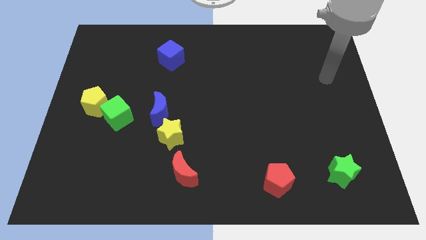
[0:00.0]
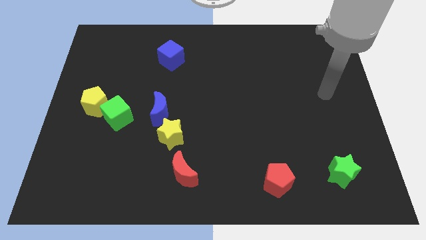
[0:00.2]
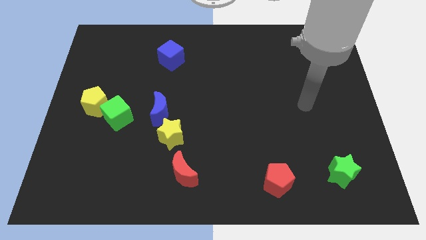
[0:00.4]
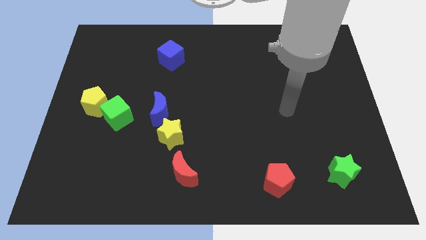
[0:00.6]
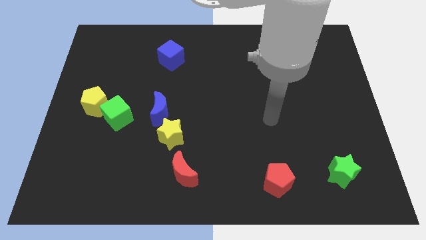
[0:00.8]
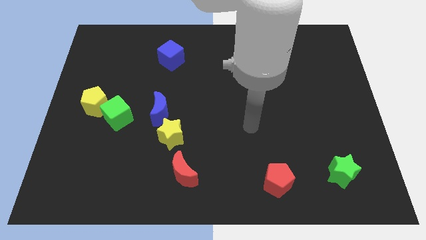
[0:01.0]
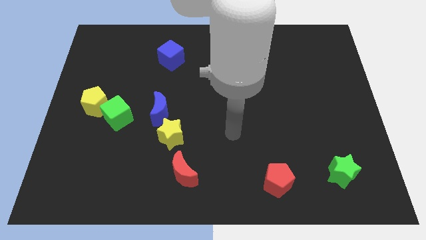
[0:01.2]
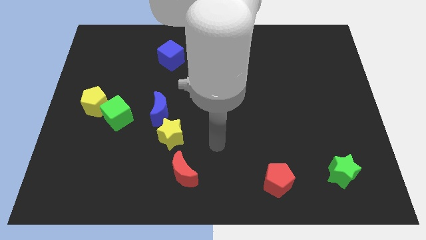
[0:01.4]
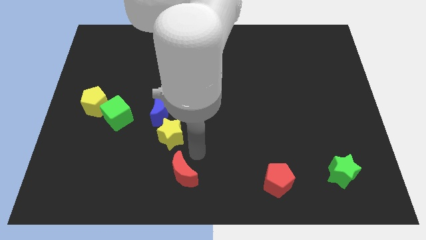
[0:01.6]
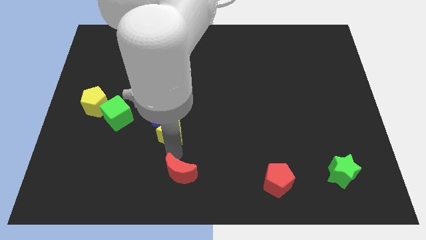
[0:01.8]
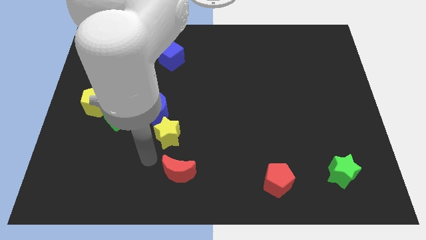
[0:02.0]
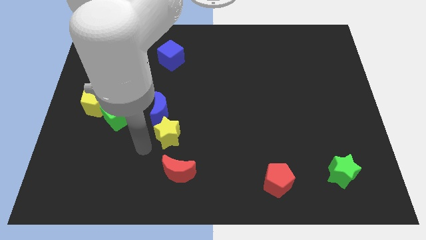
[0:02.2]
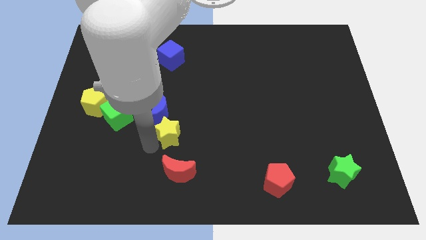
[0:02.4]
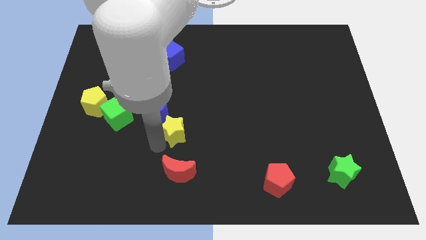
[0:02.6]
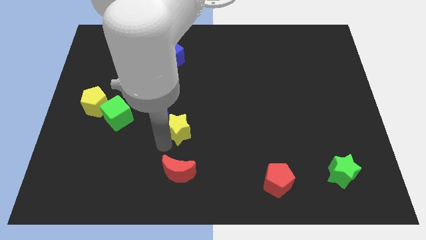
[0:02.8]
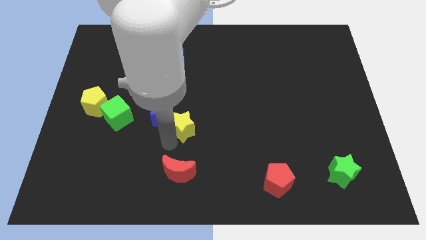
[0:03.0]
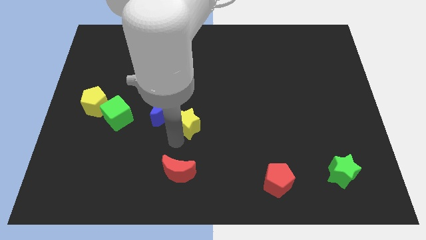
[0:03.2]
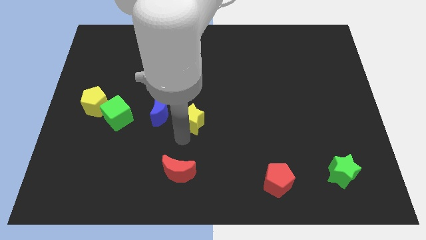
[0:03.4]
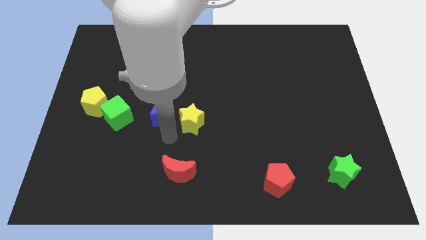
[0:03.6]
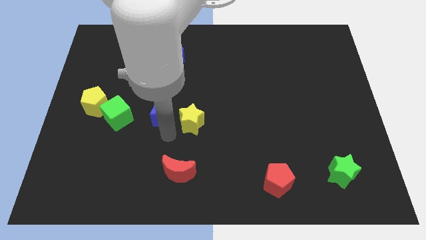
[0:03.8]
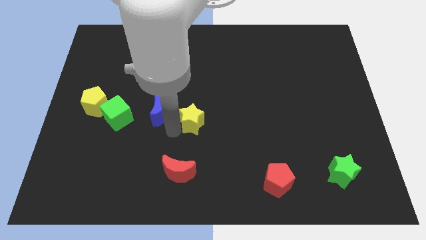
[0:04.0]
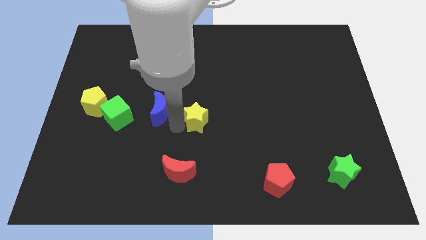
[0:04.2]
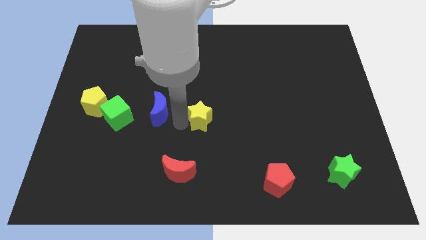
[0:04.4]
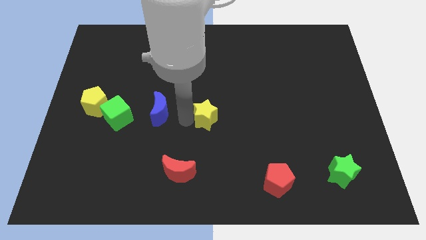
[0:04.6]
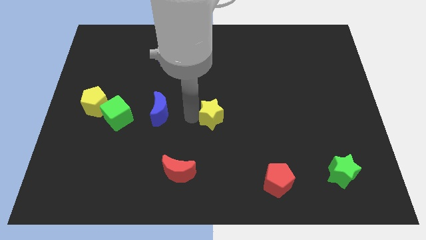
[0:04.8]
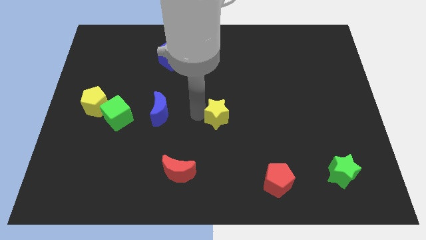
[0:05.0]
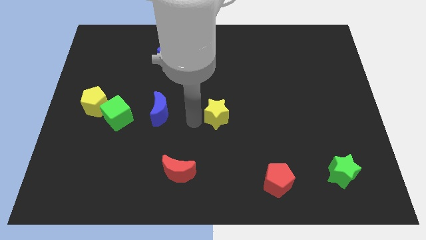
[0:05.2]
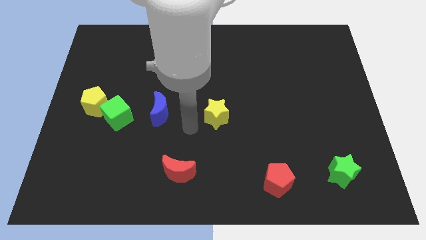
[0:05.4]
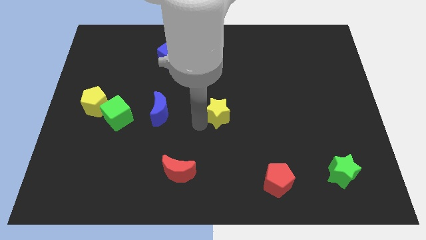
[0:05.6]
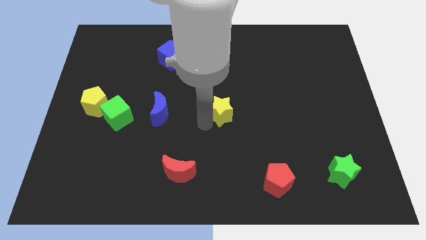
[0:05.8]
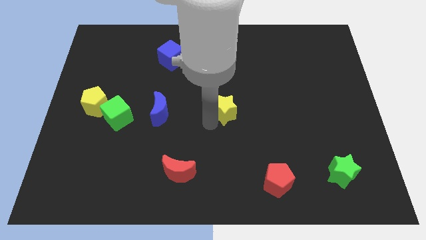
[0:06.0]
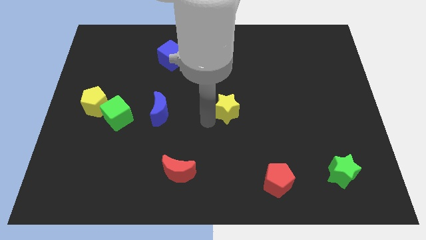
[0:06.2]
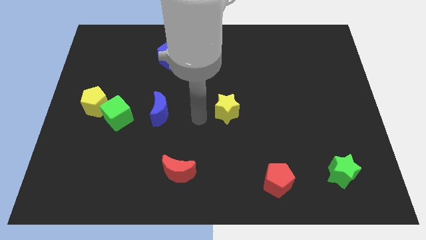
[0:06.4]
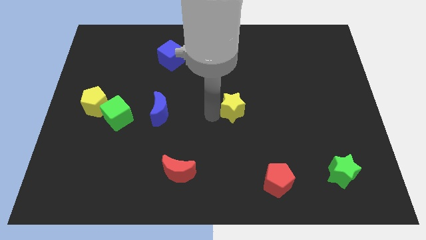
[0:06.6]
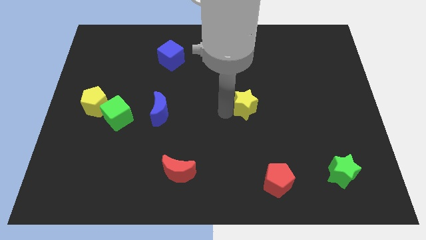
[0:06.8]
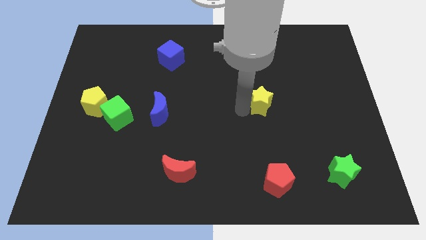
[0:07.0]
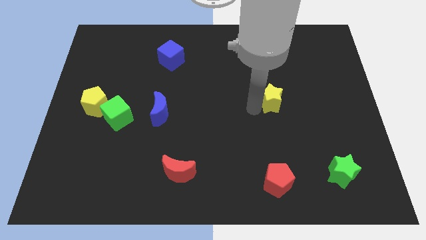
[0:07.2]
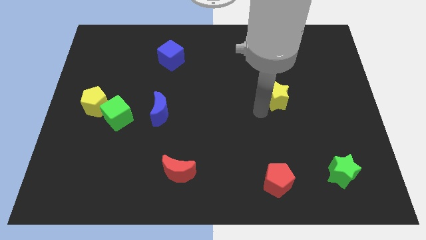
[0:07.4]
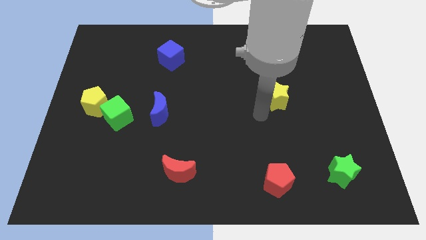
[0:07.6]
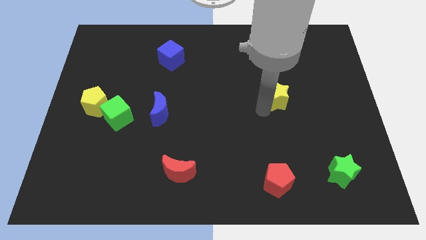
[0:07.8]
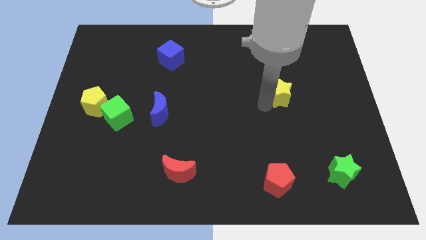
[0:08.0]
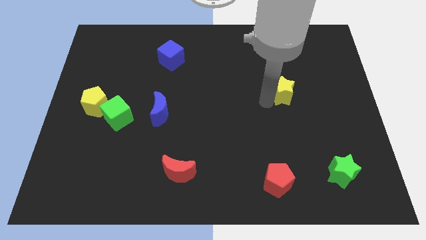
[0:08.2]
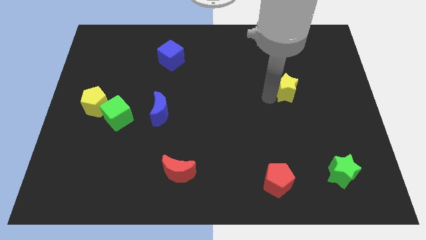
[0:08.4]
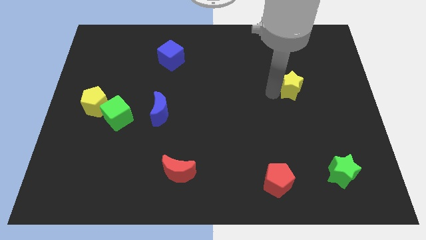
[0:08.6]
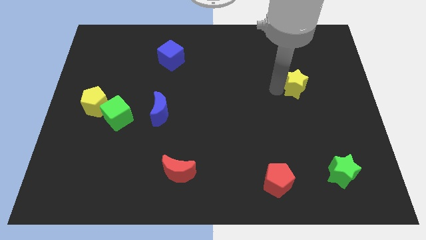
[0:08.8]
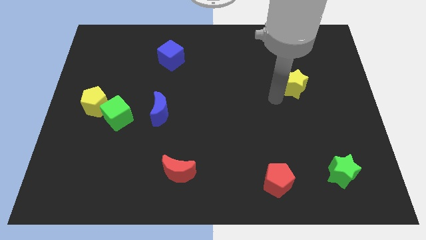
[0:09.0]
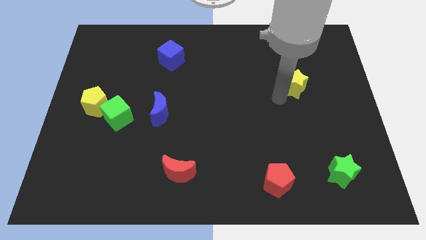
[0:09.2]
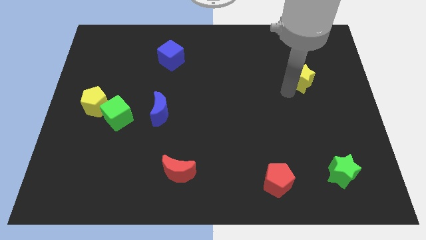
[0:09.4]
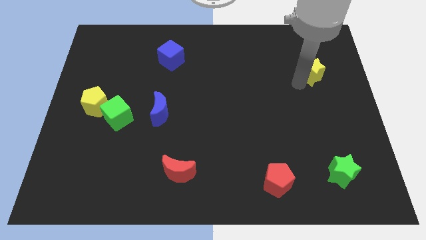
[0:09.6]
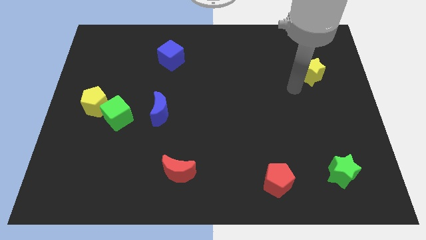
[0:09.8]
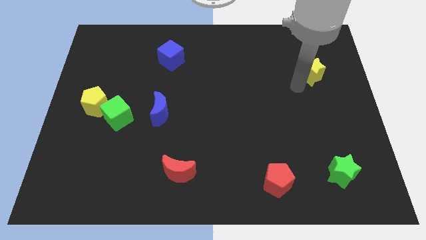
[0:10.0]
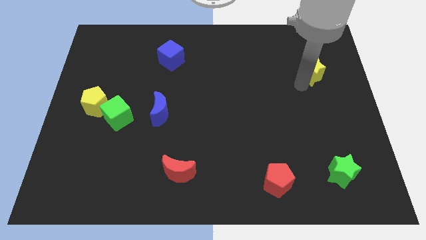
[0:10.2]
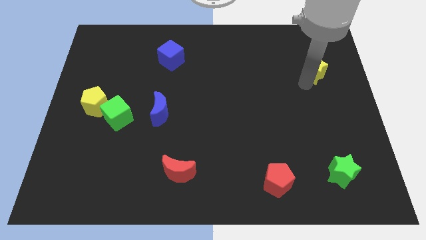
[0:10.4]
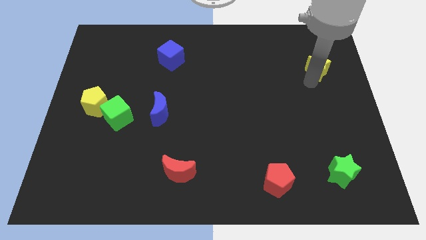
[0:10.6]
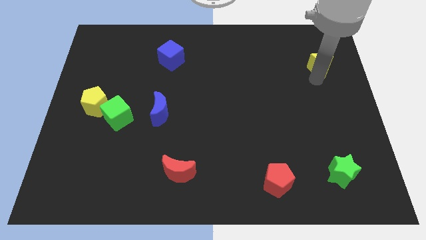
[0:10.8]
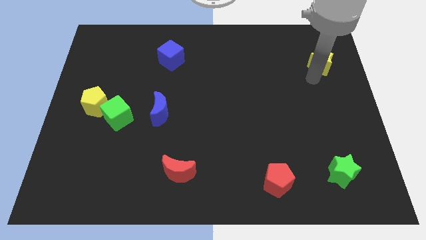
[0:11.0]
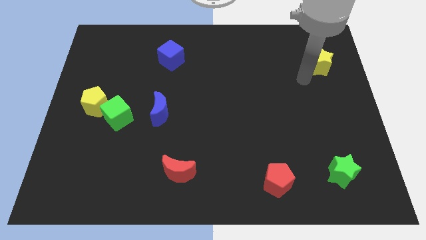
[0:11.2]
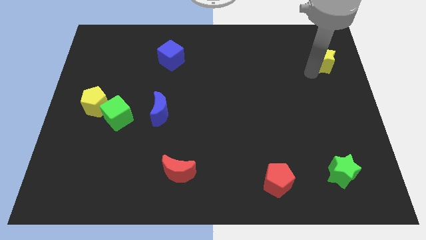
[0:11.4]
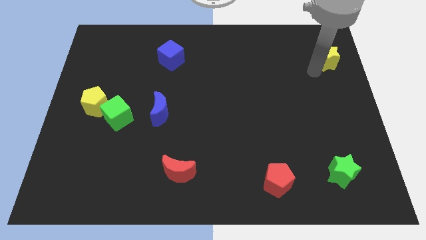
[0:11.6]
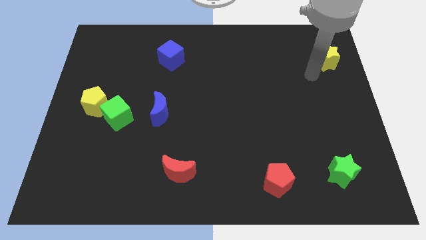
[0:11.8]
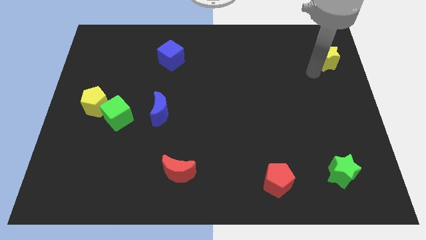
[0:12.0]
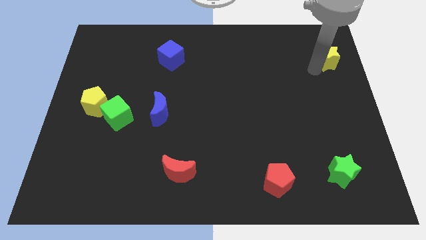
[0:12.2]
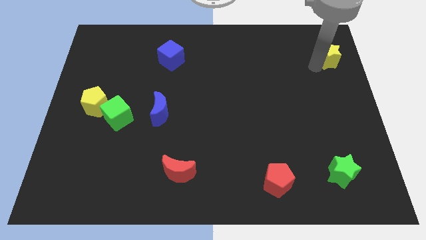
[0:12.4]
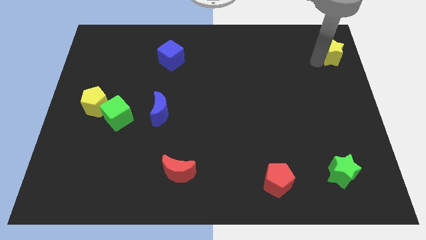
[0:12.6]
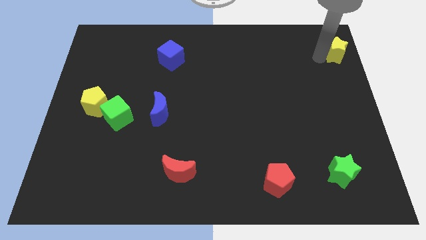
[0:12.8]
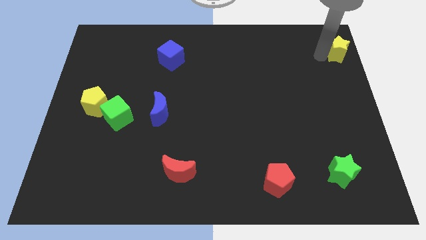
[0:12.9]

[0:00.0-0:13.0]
push the yellow star to the top right
